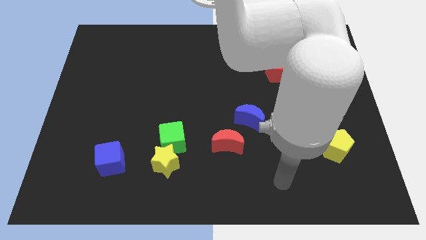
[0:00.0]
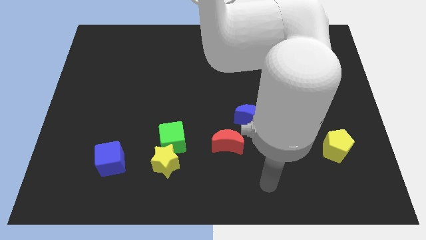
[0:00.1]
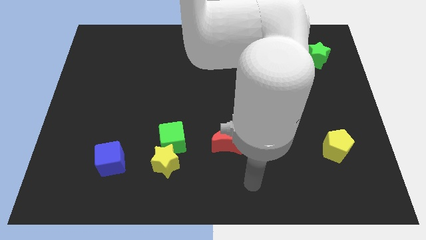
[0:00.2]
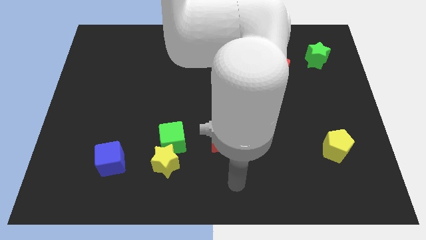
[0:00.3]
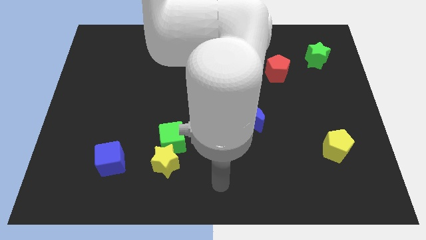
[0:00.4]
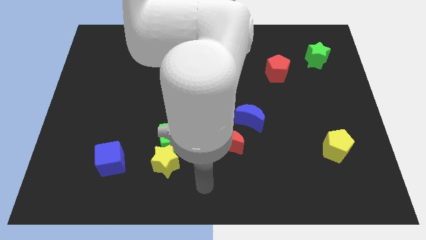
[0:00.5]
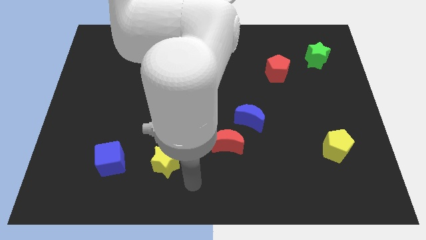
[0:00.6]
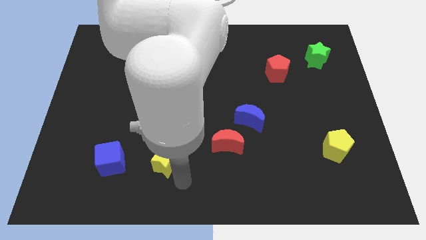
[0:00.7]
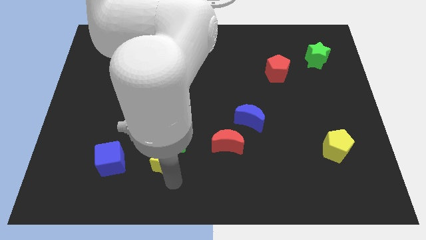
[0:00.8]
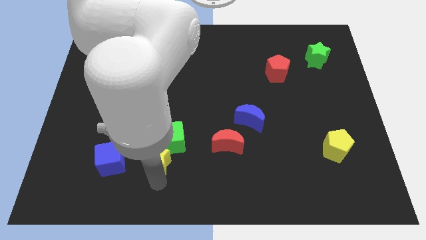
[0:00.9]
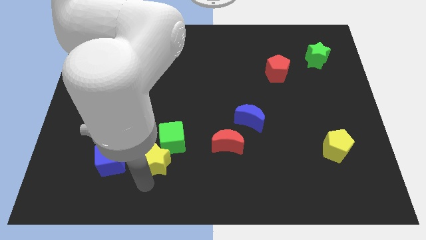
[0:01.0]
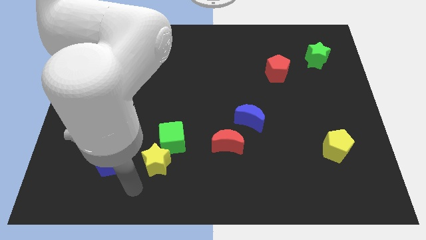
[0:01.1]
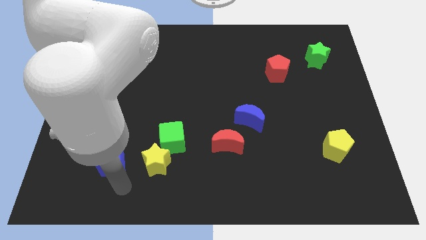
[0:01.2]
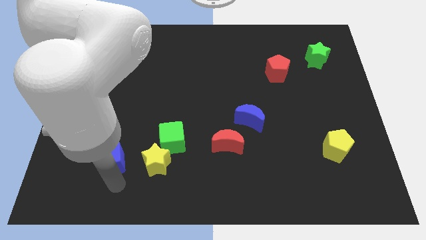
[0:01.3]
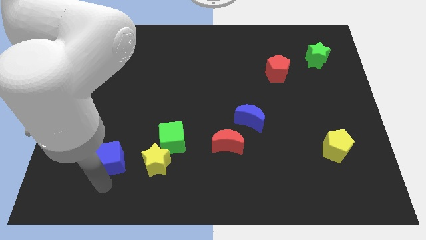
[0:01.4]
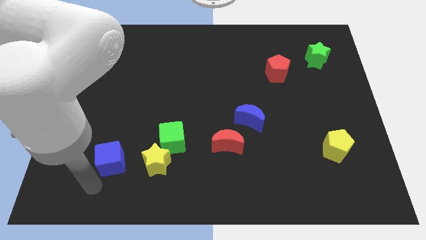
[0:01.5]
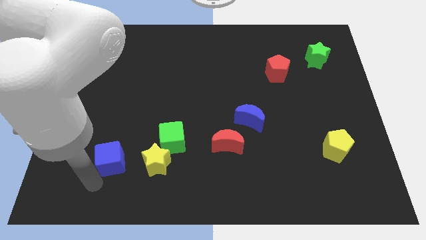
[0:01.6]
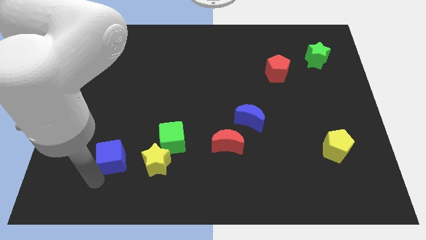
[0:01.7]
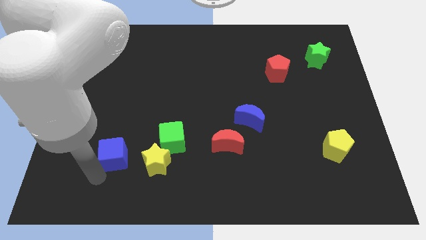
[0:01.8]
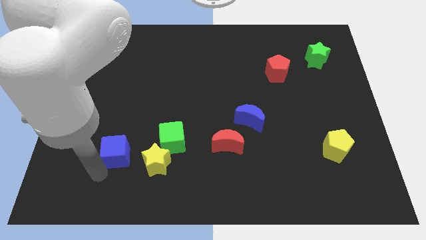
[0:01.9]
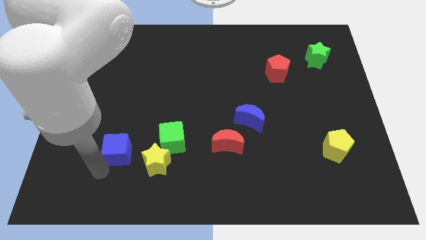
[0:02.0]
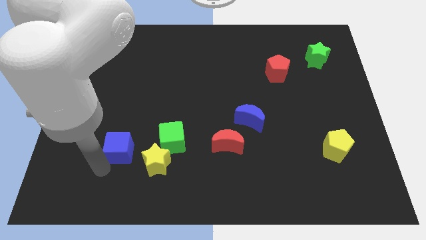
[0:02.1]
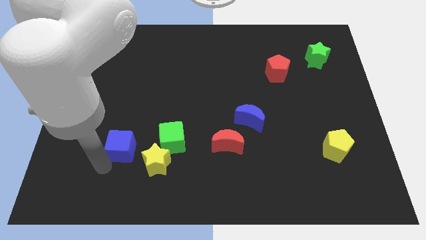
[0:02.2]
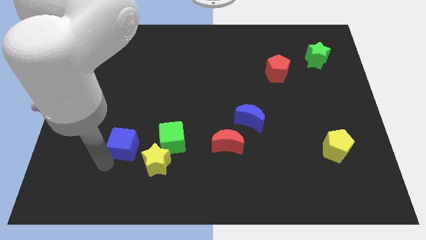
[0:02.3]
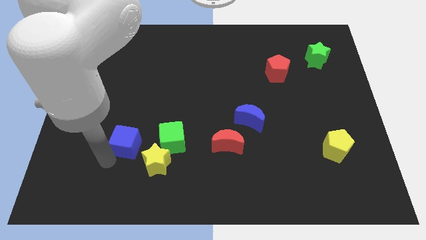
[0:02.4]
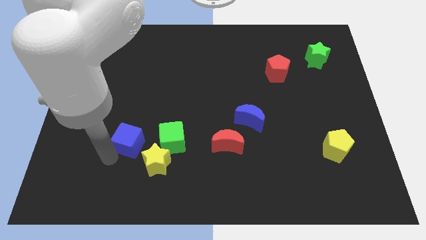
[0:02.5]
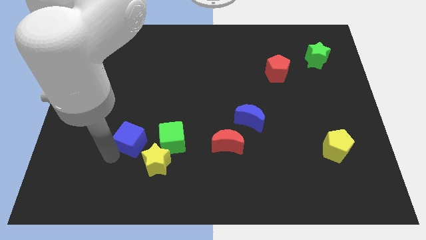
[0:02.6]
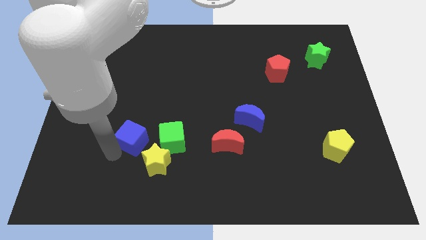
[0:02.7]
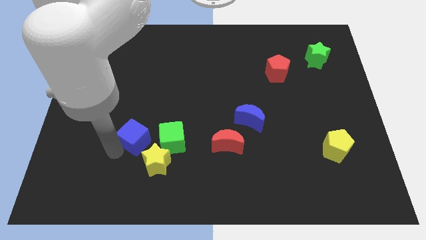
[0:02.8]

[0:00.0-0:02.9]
move the blue cube a little diagonally up and to the right

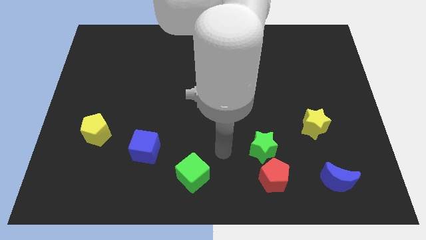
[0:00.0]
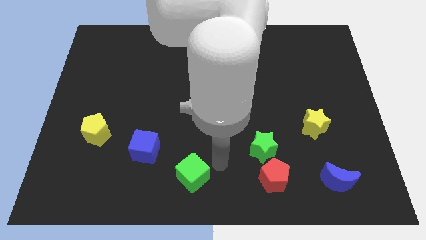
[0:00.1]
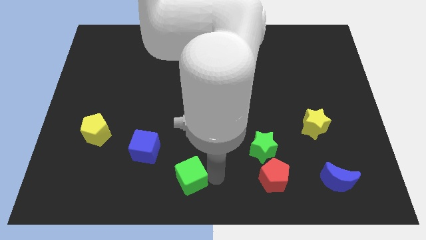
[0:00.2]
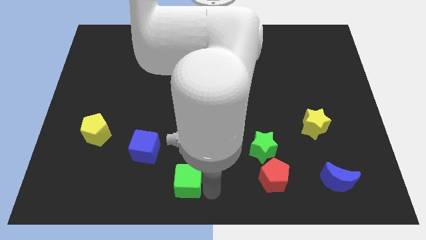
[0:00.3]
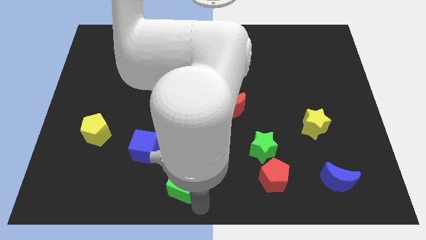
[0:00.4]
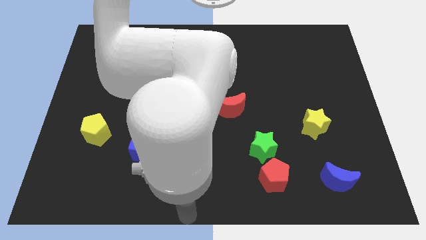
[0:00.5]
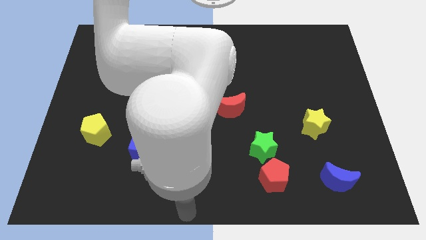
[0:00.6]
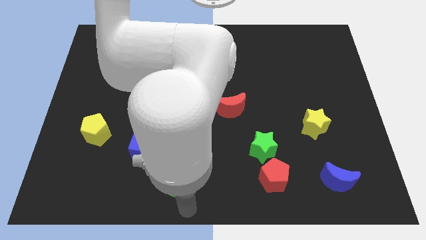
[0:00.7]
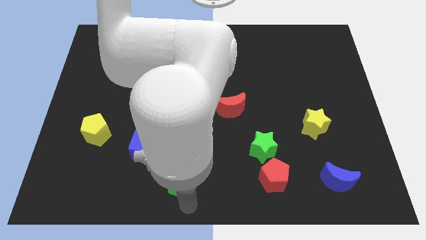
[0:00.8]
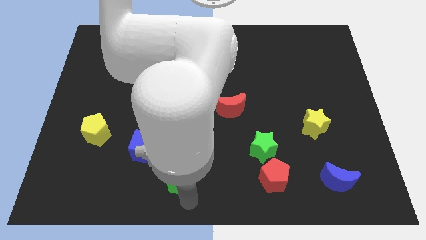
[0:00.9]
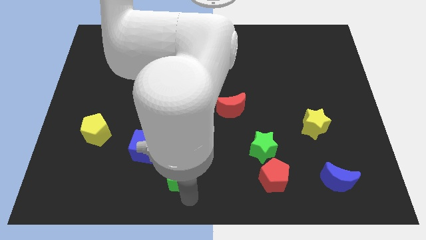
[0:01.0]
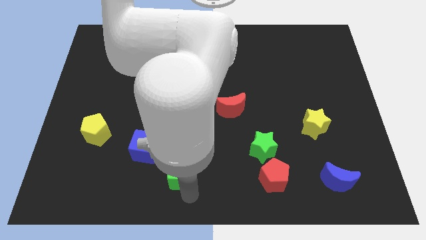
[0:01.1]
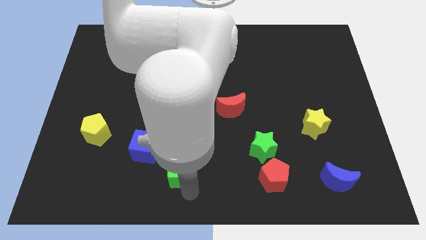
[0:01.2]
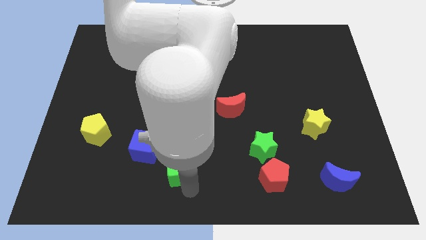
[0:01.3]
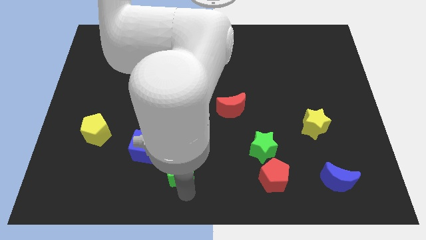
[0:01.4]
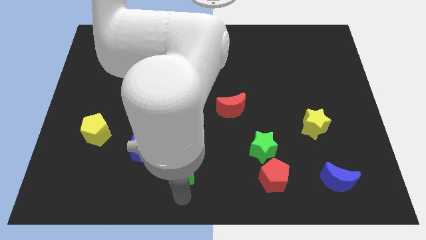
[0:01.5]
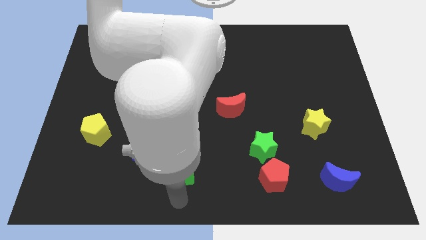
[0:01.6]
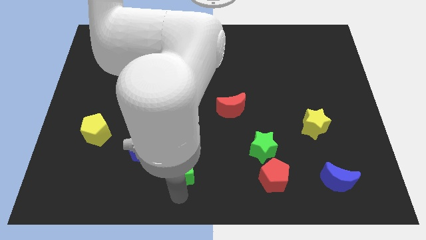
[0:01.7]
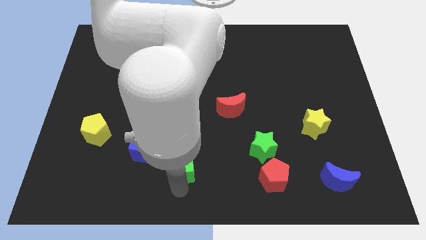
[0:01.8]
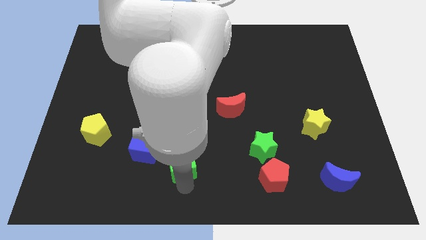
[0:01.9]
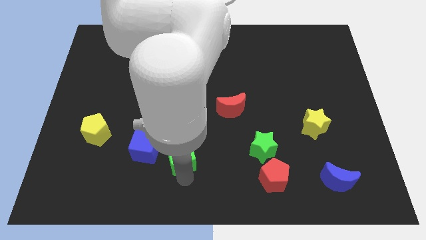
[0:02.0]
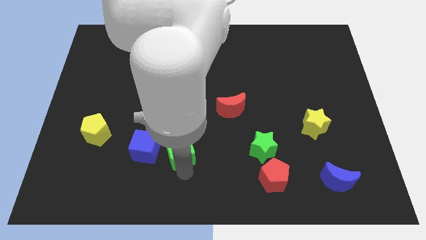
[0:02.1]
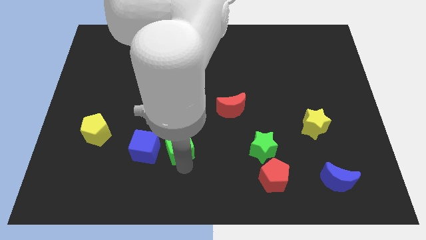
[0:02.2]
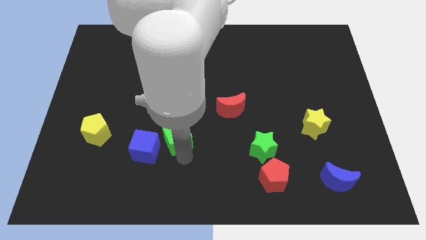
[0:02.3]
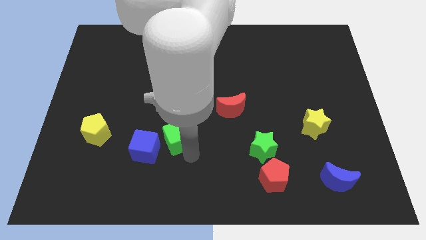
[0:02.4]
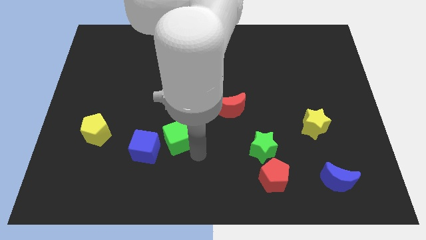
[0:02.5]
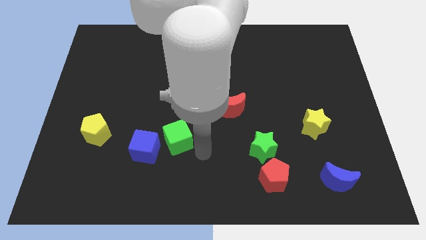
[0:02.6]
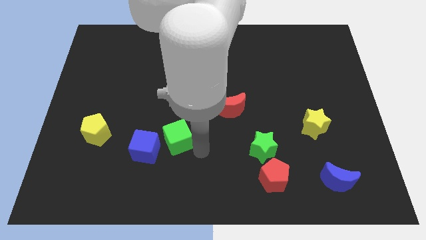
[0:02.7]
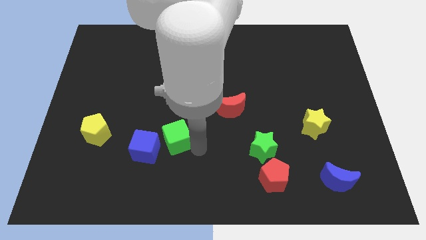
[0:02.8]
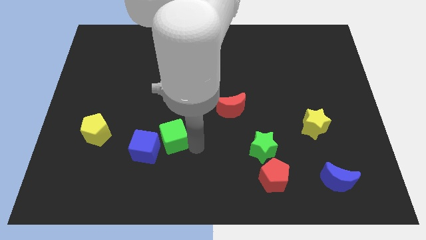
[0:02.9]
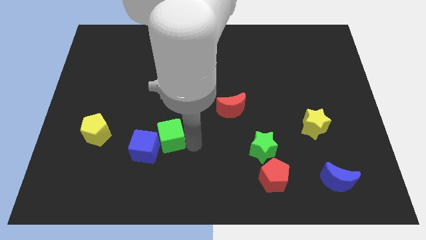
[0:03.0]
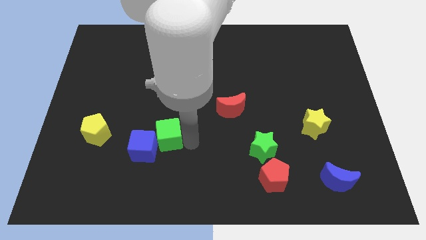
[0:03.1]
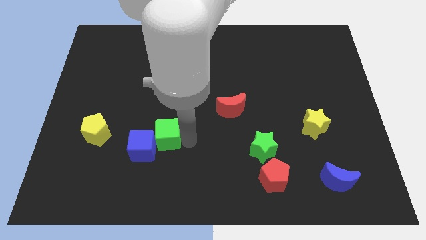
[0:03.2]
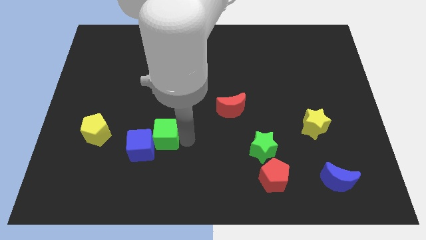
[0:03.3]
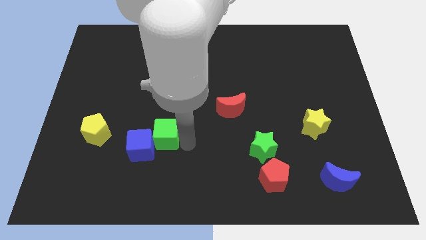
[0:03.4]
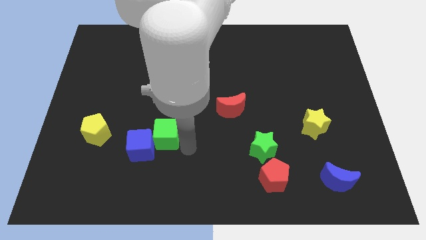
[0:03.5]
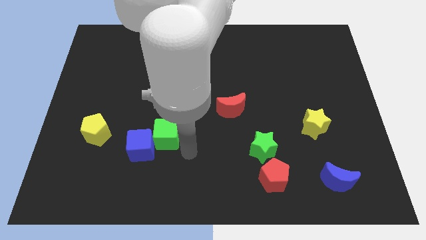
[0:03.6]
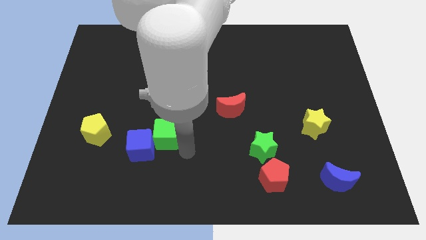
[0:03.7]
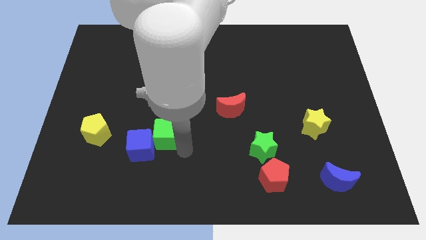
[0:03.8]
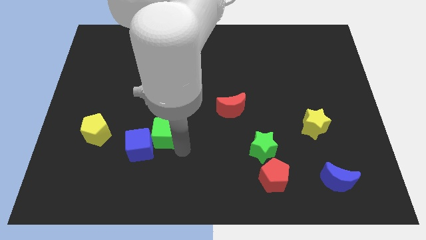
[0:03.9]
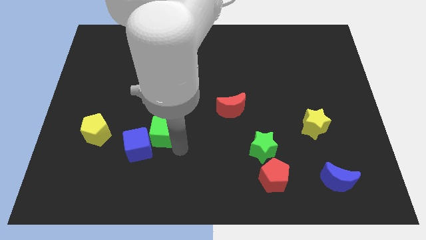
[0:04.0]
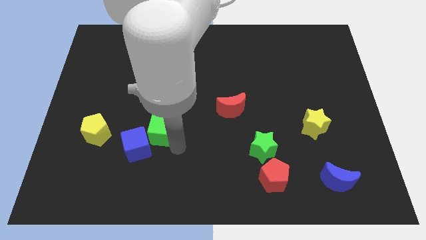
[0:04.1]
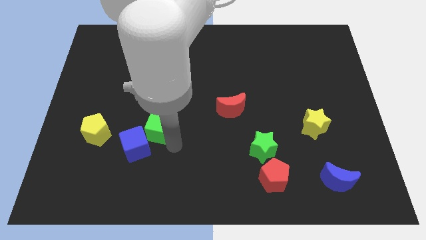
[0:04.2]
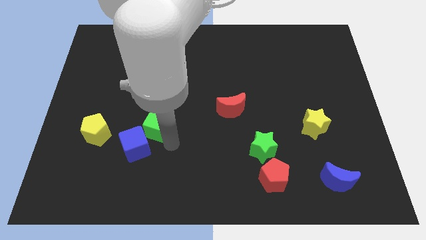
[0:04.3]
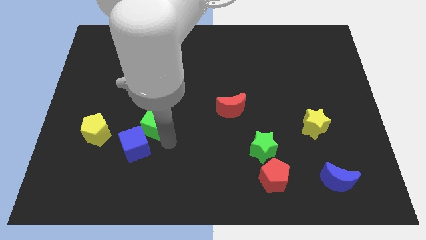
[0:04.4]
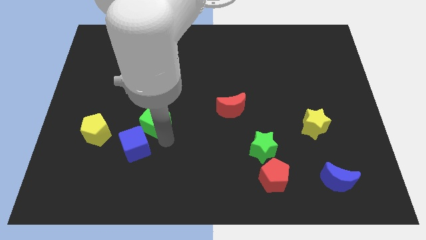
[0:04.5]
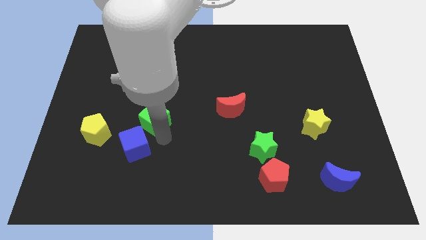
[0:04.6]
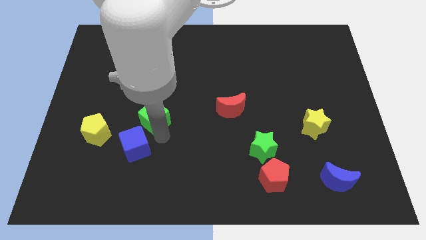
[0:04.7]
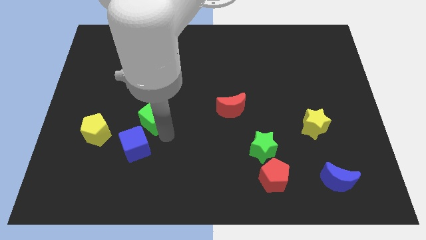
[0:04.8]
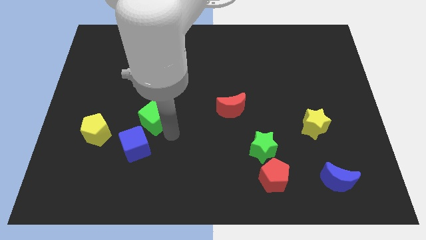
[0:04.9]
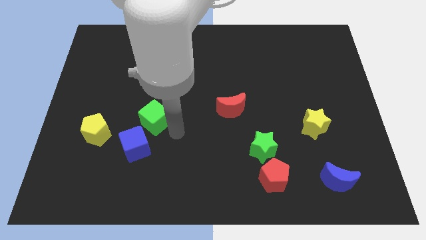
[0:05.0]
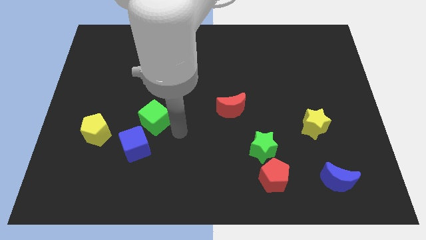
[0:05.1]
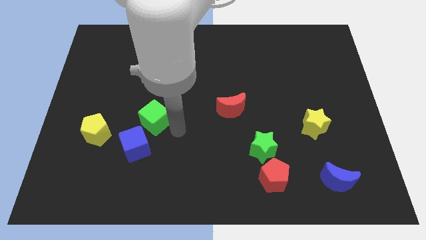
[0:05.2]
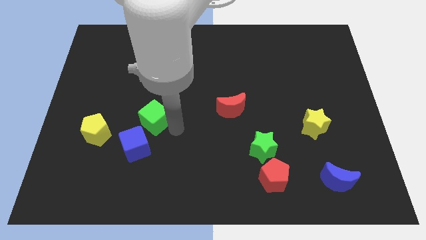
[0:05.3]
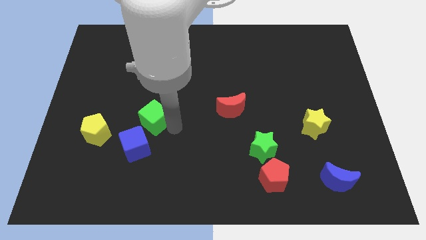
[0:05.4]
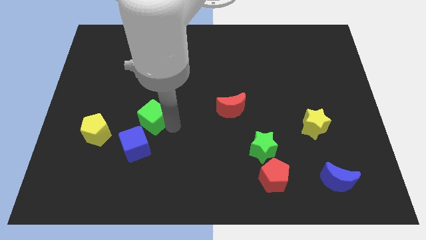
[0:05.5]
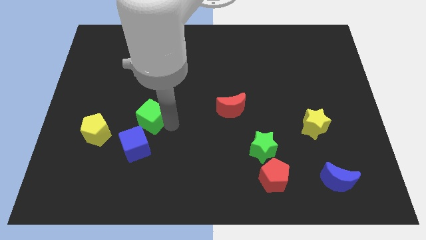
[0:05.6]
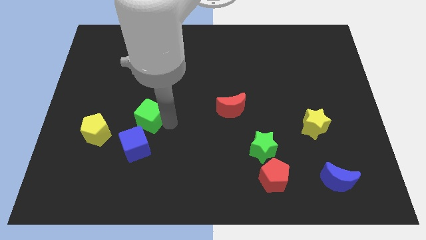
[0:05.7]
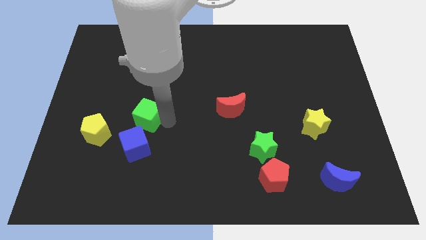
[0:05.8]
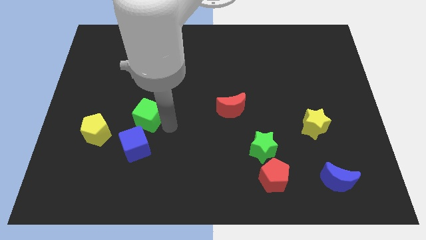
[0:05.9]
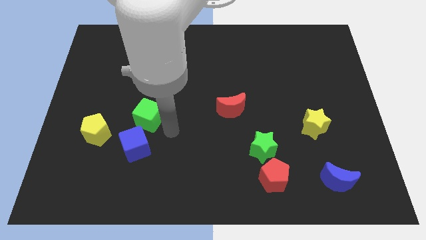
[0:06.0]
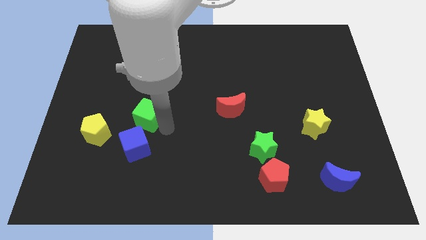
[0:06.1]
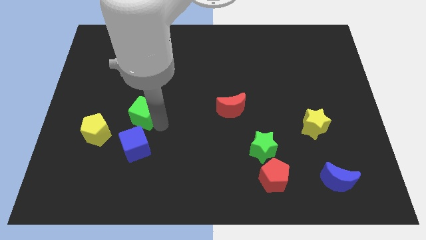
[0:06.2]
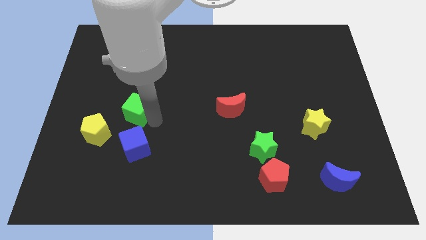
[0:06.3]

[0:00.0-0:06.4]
push the green cube diagonally up and to the left
